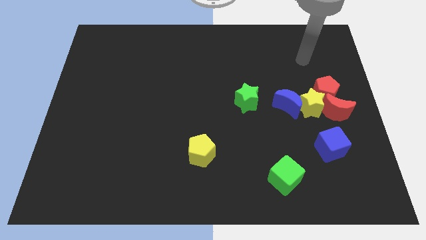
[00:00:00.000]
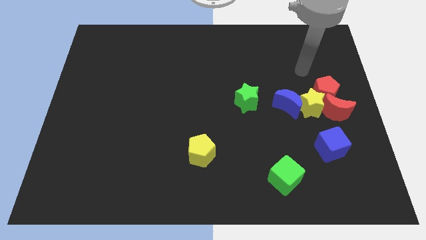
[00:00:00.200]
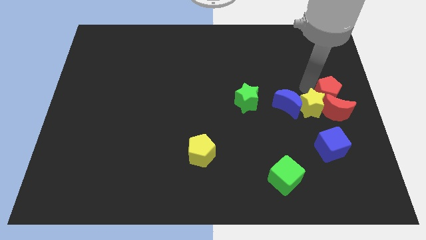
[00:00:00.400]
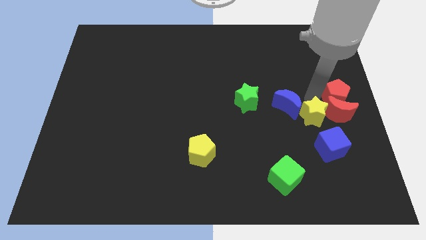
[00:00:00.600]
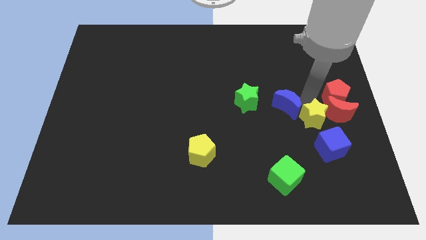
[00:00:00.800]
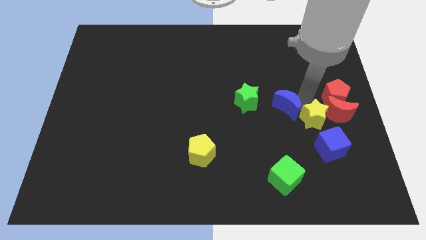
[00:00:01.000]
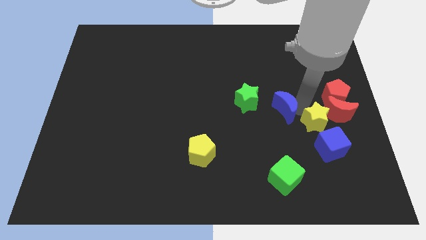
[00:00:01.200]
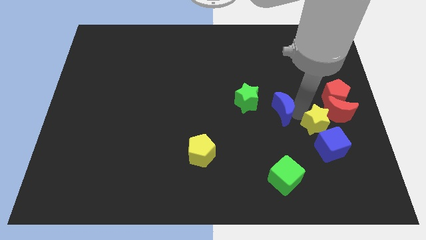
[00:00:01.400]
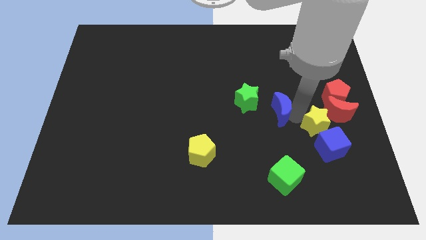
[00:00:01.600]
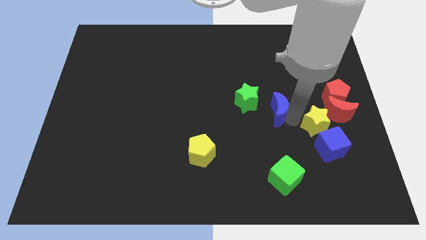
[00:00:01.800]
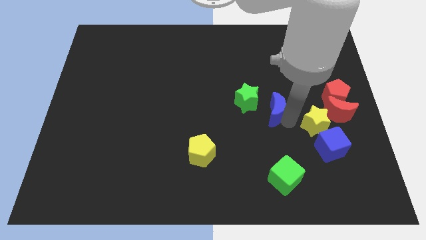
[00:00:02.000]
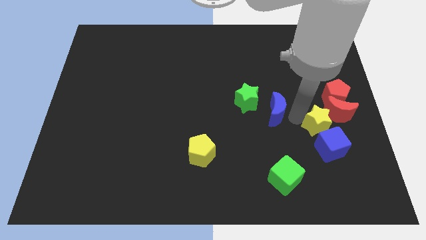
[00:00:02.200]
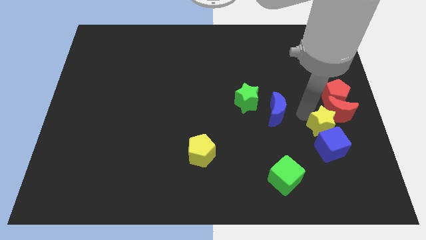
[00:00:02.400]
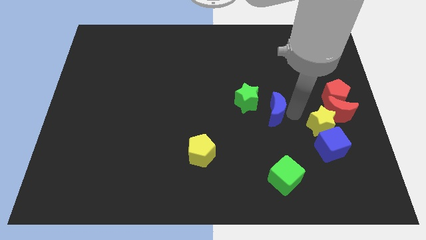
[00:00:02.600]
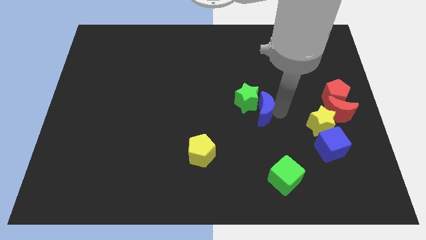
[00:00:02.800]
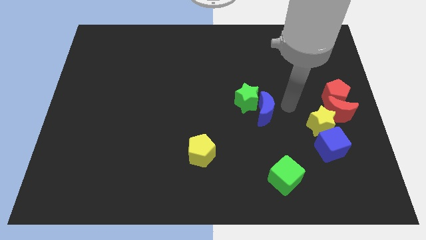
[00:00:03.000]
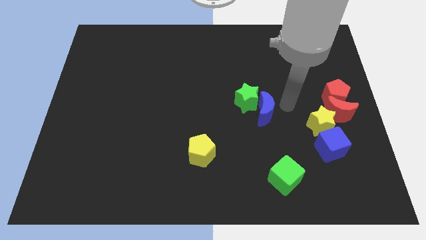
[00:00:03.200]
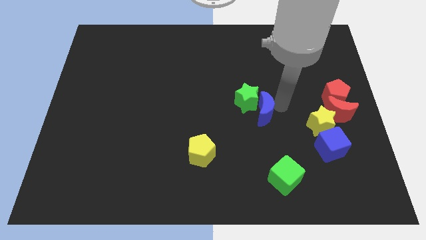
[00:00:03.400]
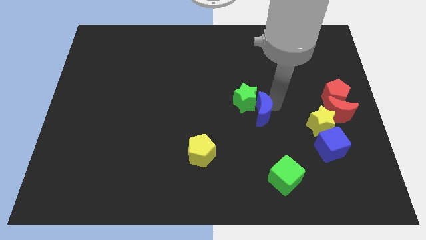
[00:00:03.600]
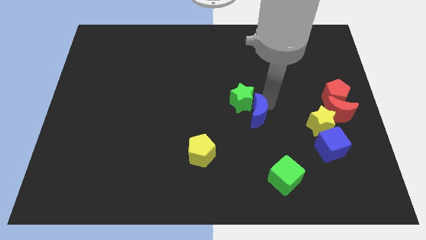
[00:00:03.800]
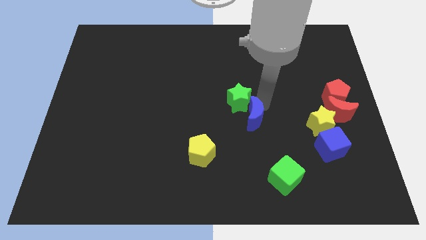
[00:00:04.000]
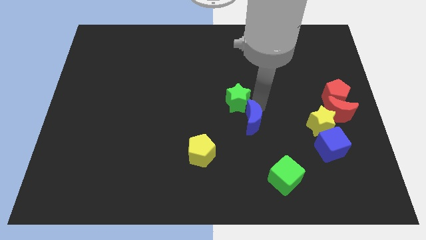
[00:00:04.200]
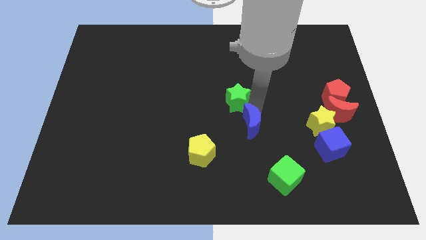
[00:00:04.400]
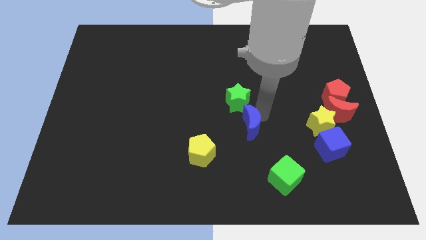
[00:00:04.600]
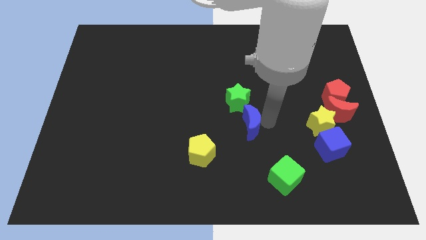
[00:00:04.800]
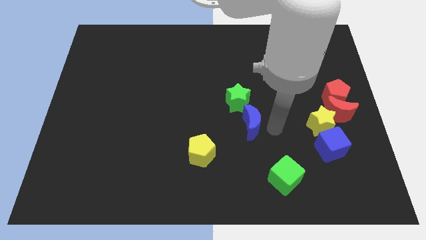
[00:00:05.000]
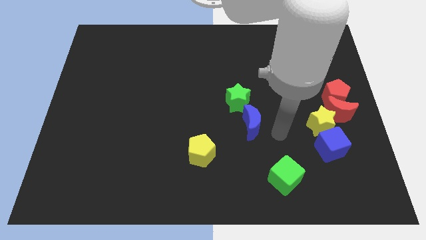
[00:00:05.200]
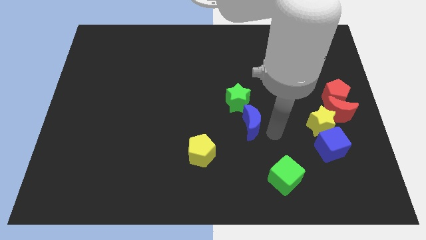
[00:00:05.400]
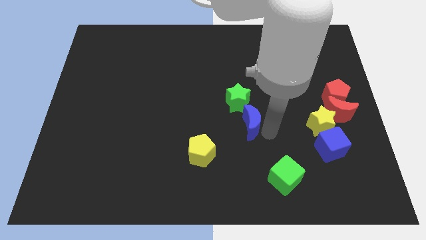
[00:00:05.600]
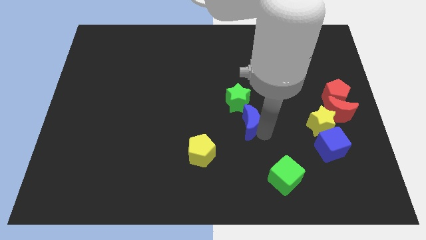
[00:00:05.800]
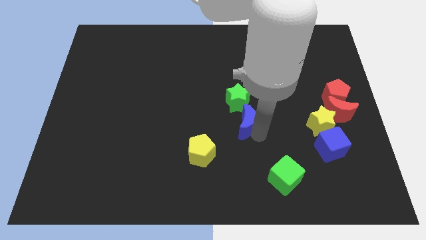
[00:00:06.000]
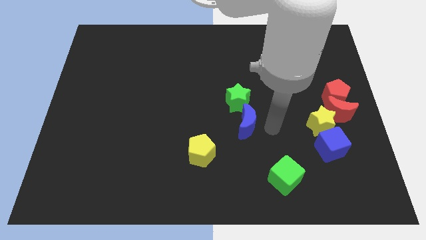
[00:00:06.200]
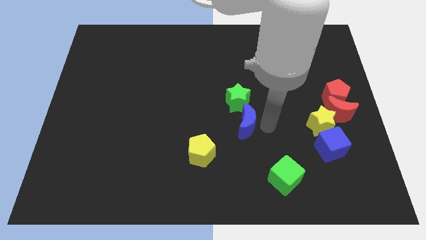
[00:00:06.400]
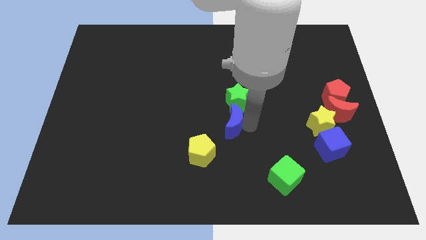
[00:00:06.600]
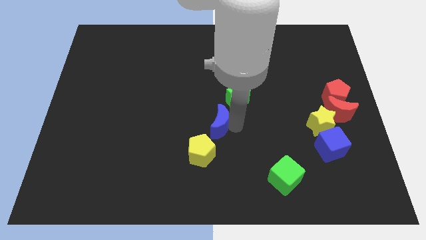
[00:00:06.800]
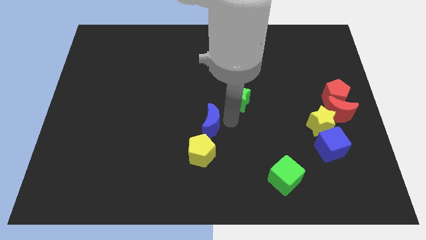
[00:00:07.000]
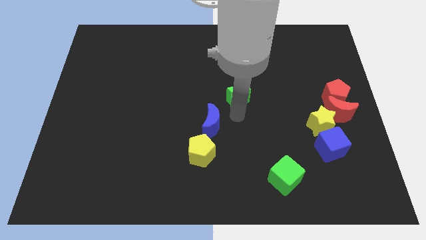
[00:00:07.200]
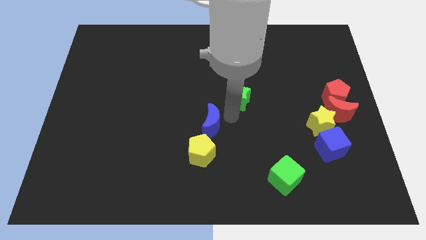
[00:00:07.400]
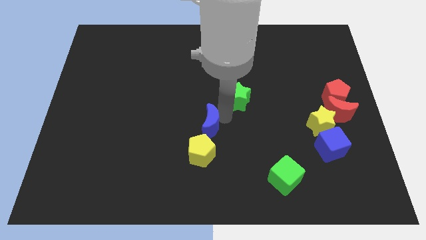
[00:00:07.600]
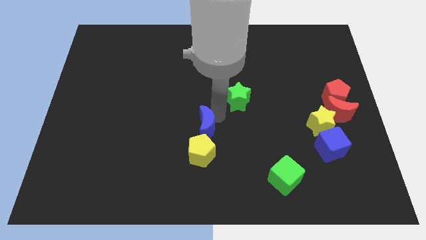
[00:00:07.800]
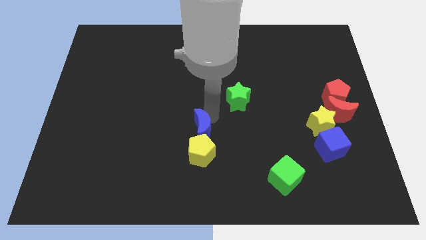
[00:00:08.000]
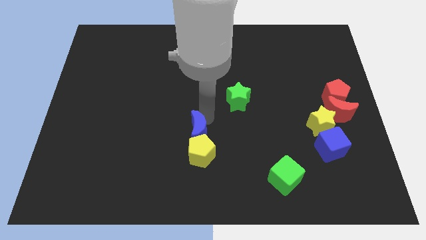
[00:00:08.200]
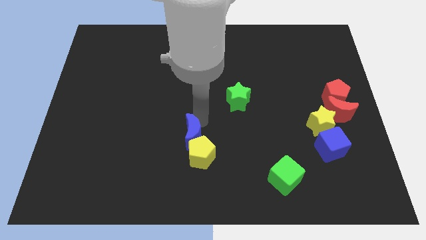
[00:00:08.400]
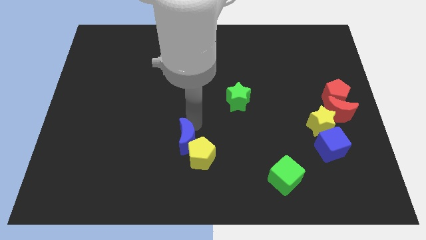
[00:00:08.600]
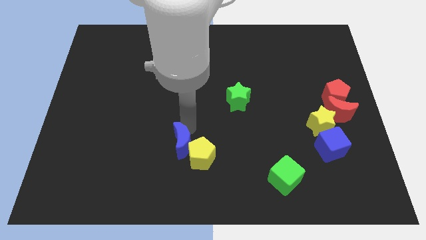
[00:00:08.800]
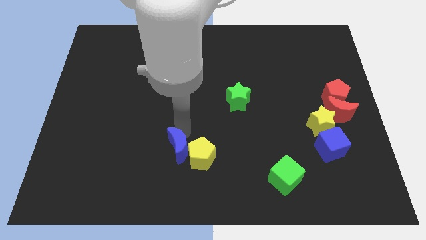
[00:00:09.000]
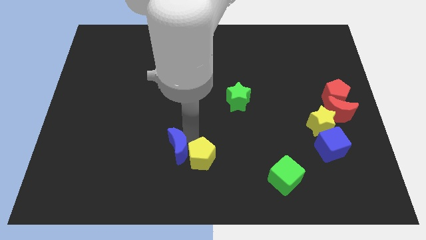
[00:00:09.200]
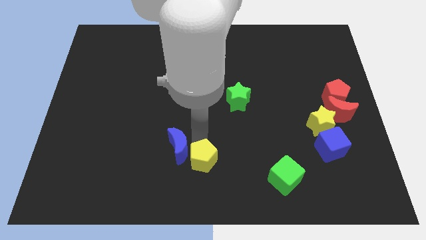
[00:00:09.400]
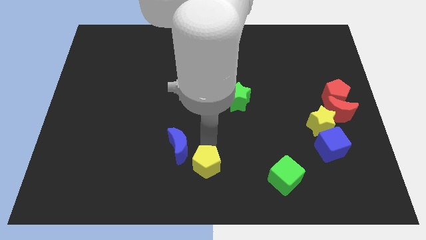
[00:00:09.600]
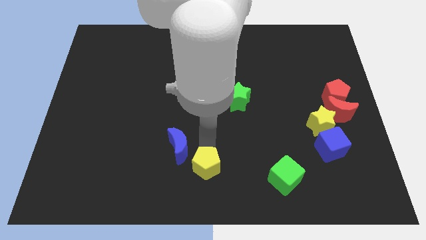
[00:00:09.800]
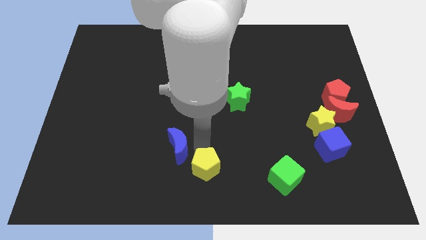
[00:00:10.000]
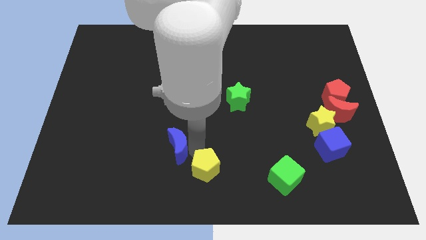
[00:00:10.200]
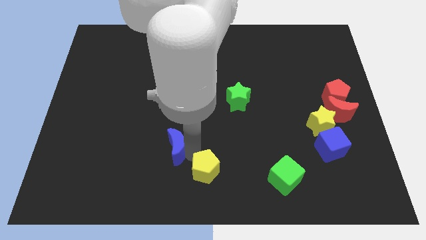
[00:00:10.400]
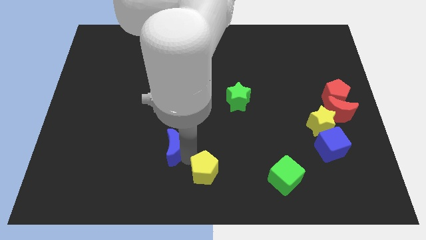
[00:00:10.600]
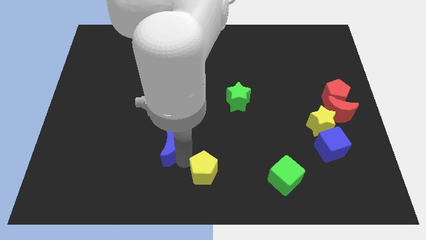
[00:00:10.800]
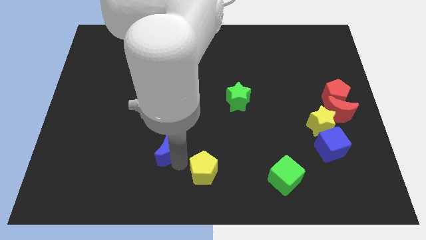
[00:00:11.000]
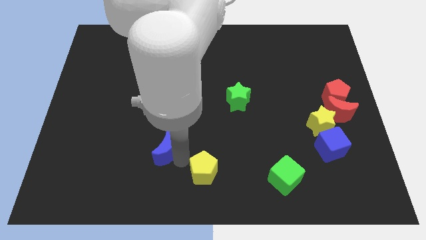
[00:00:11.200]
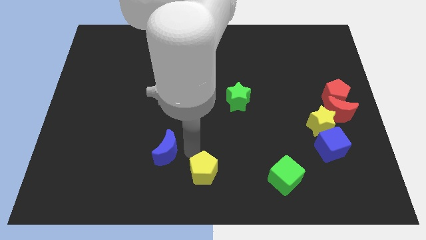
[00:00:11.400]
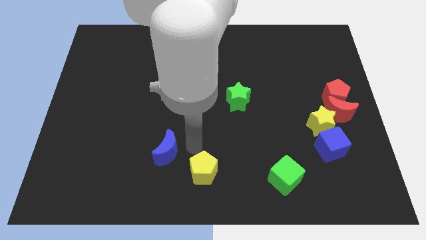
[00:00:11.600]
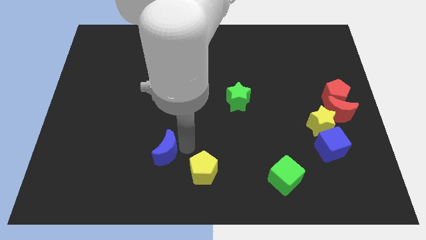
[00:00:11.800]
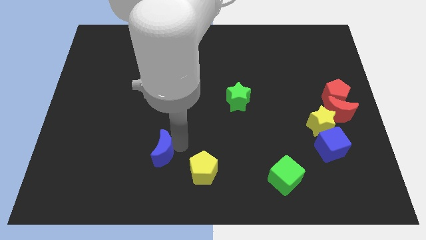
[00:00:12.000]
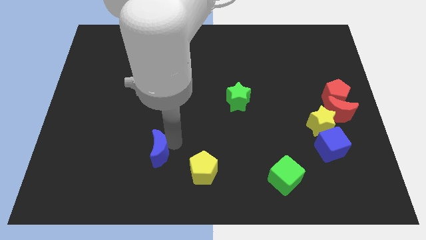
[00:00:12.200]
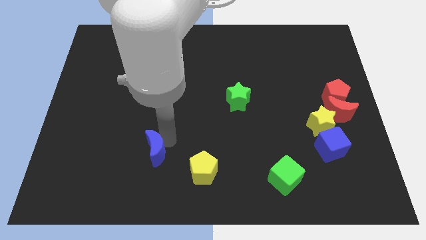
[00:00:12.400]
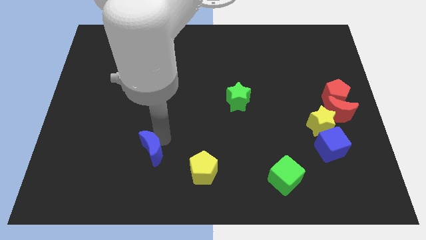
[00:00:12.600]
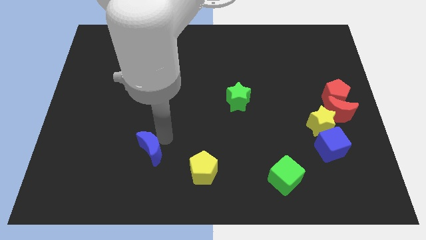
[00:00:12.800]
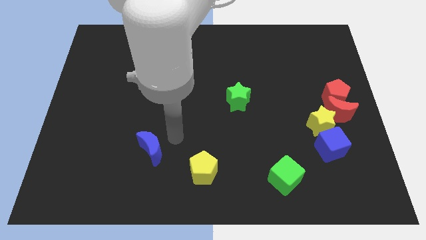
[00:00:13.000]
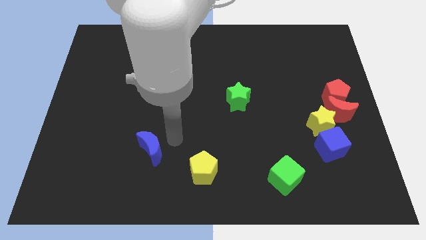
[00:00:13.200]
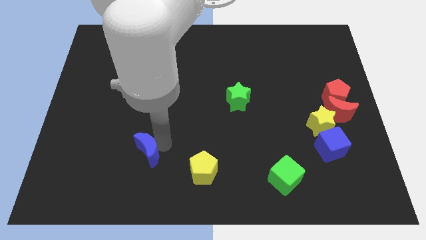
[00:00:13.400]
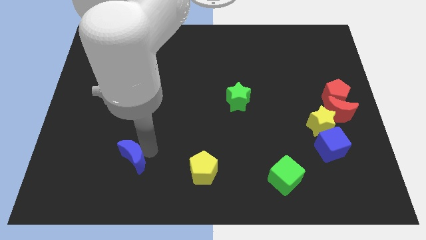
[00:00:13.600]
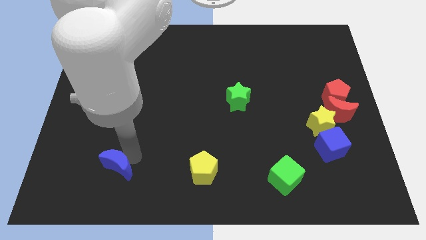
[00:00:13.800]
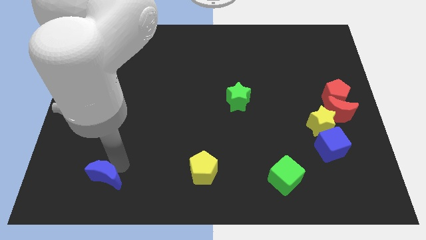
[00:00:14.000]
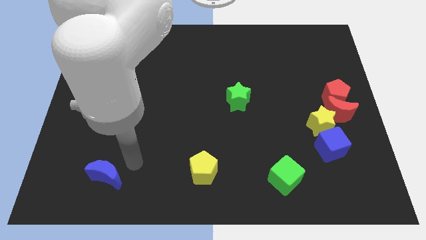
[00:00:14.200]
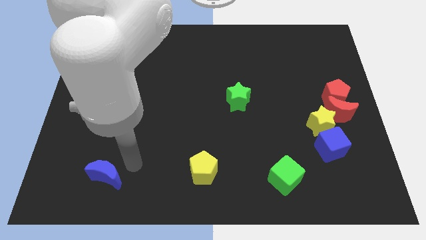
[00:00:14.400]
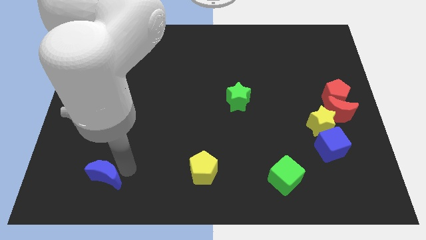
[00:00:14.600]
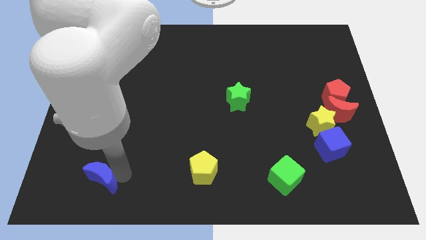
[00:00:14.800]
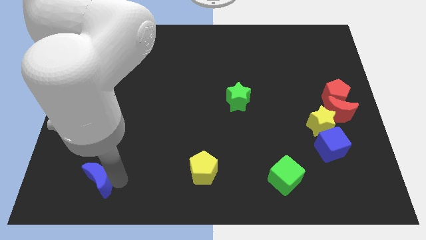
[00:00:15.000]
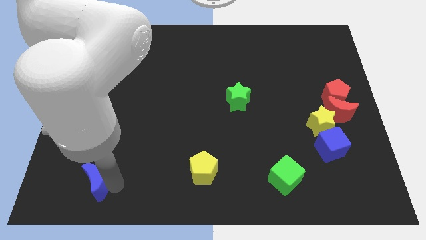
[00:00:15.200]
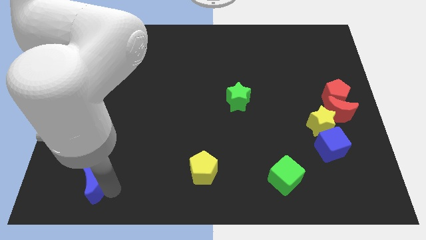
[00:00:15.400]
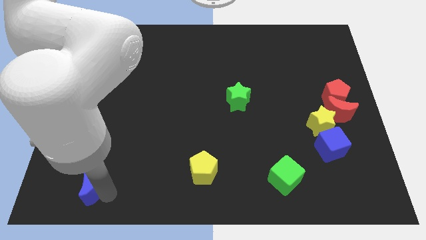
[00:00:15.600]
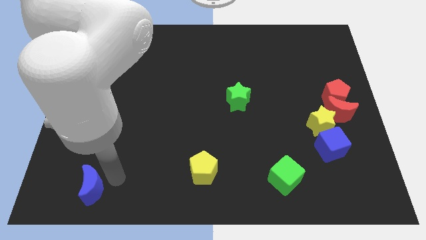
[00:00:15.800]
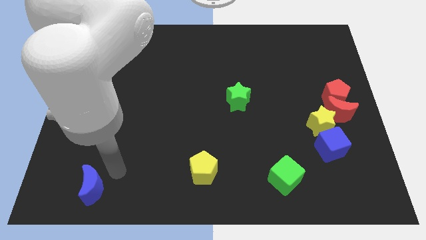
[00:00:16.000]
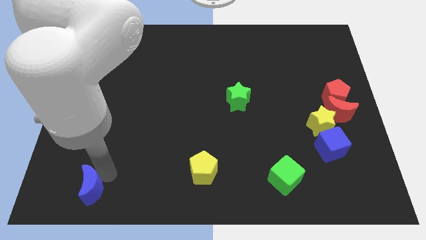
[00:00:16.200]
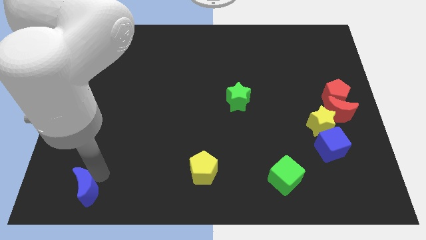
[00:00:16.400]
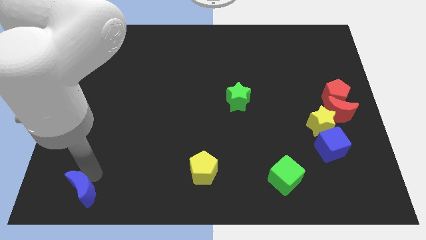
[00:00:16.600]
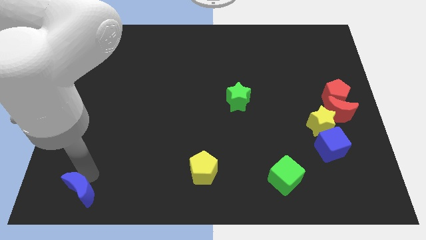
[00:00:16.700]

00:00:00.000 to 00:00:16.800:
slide the blue moon to the lower left corner
